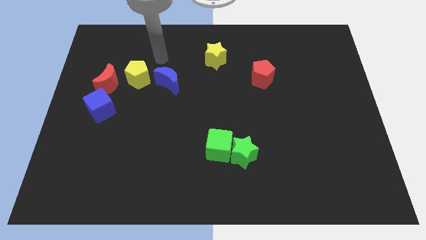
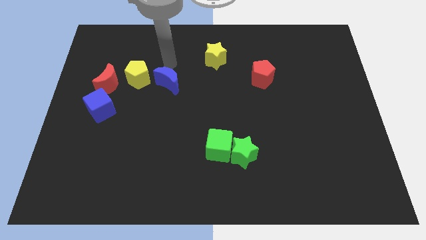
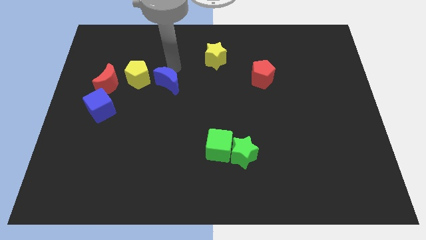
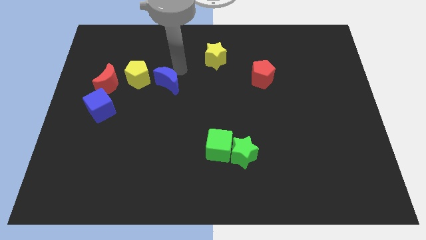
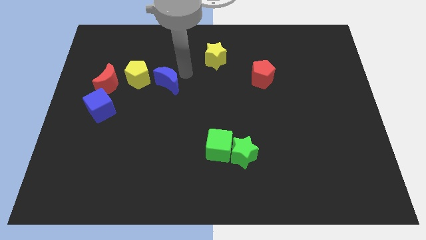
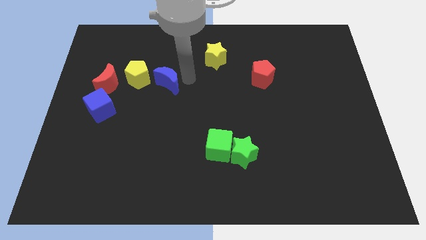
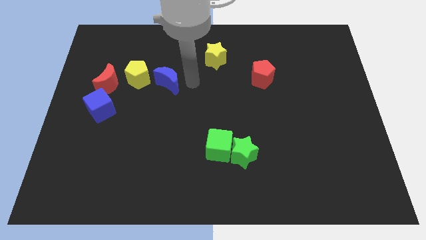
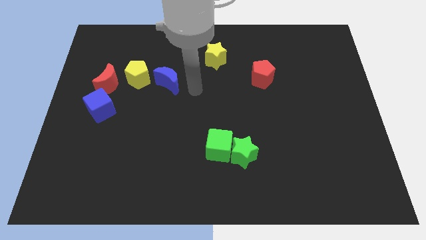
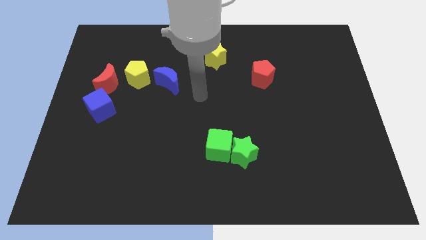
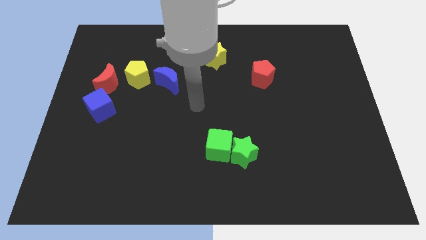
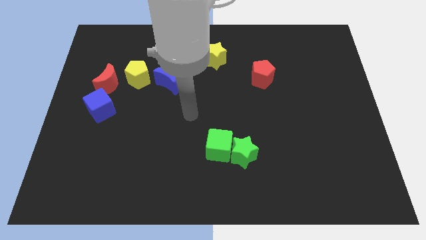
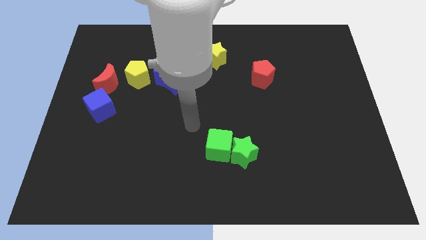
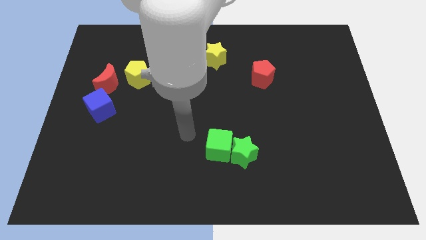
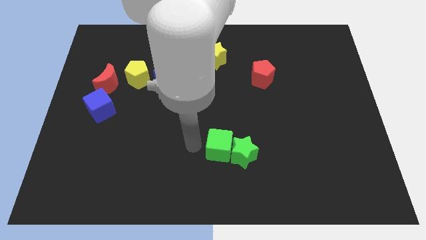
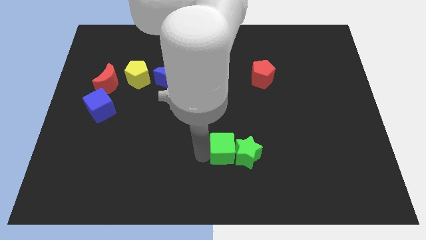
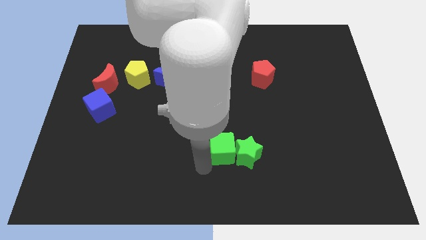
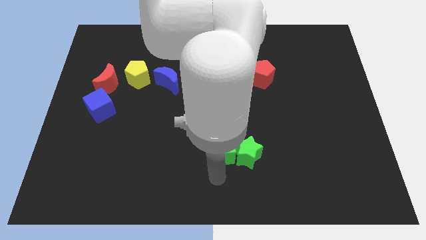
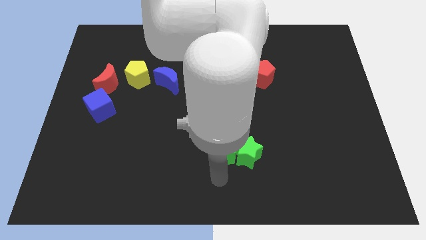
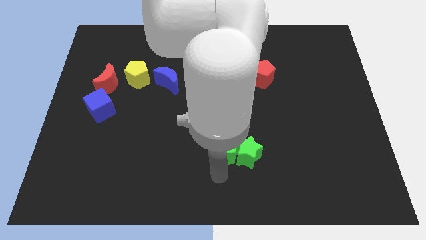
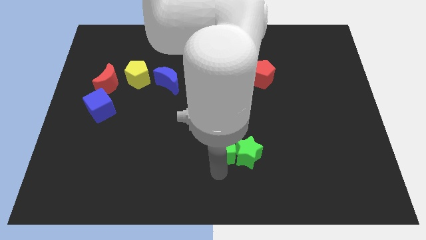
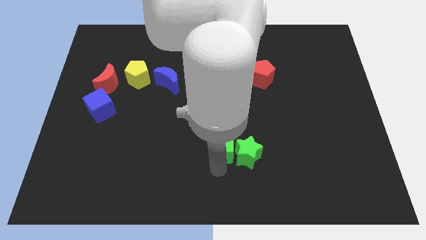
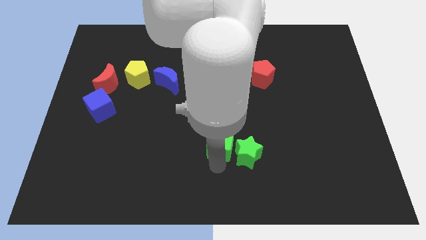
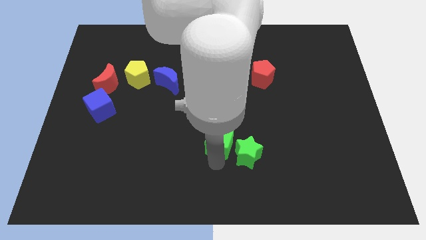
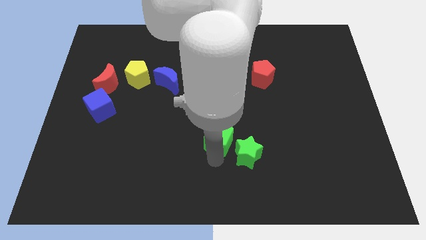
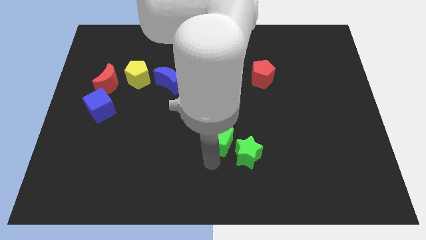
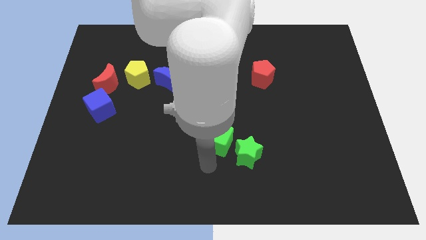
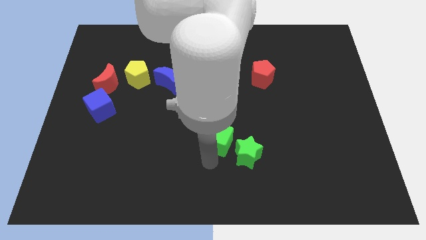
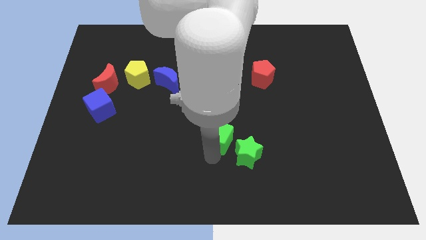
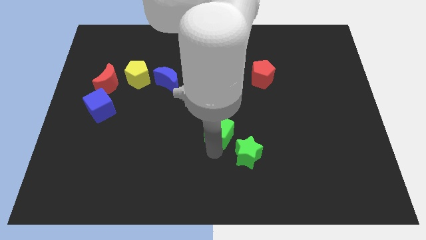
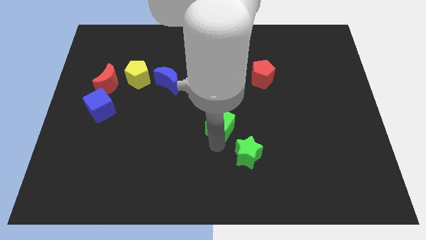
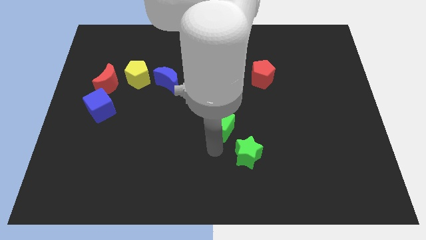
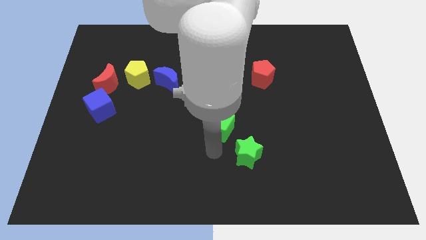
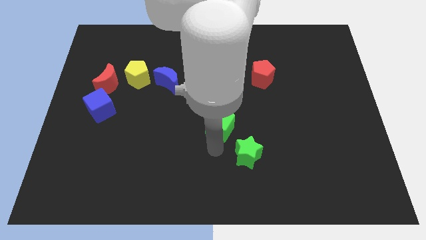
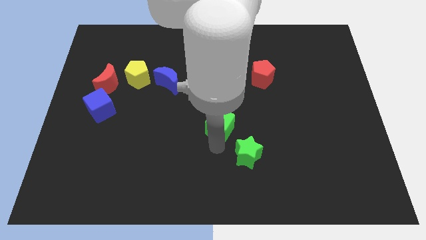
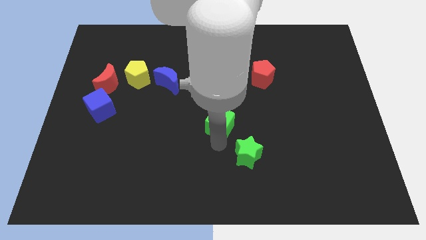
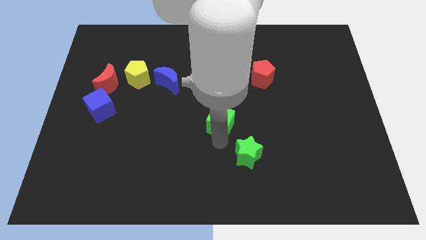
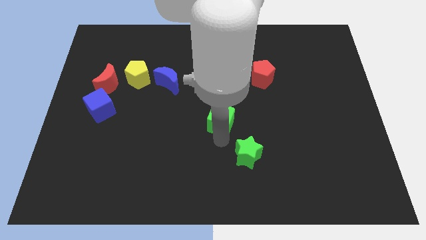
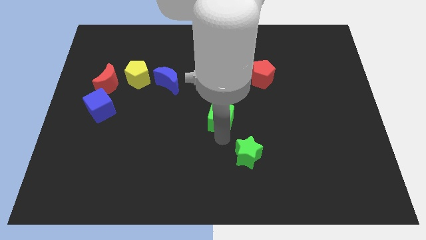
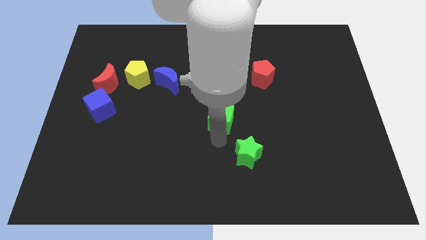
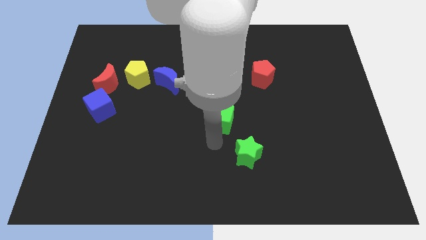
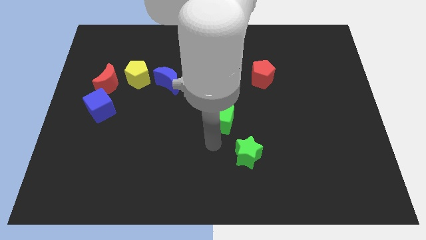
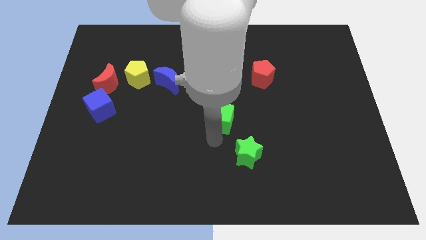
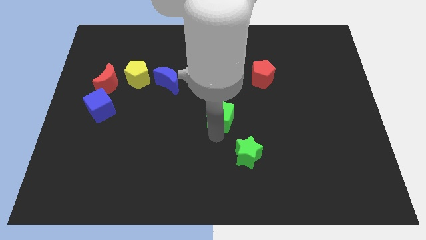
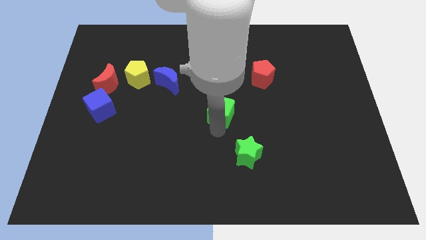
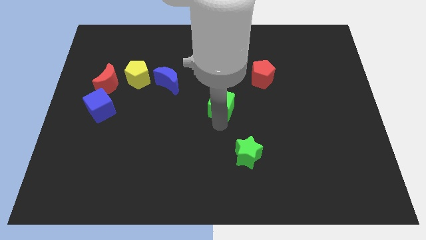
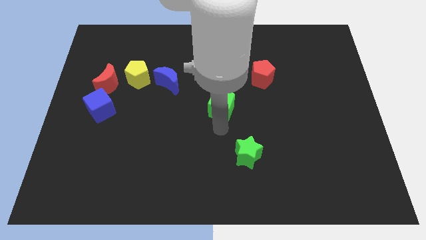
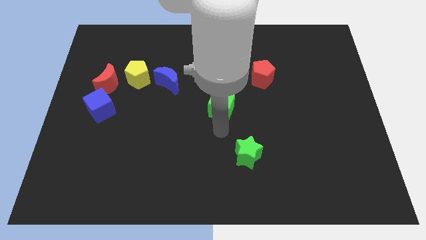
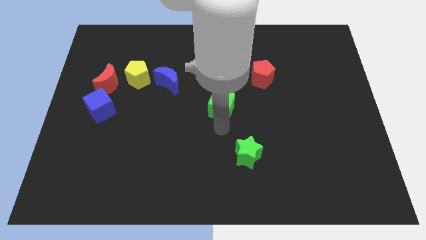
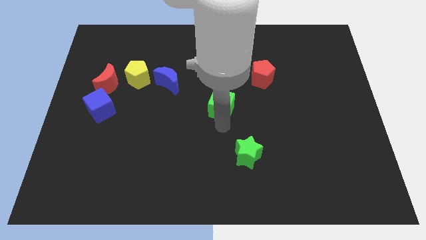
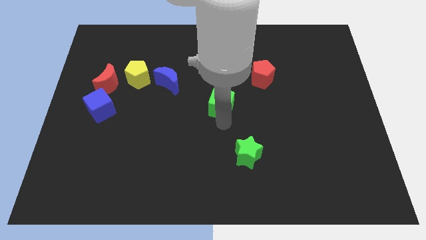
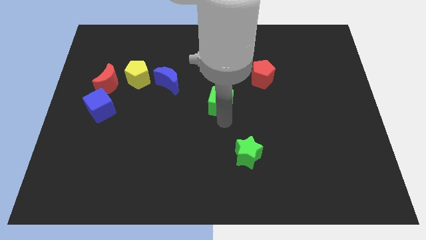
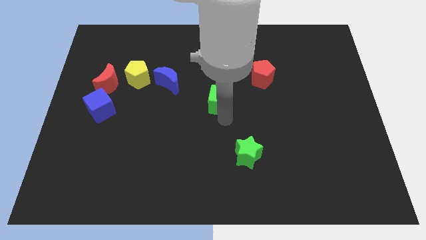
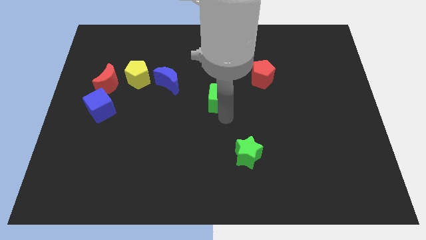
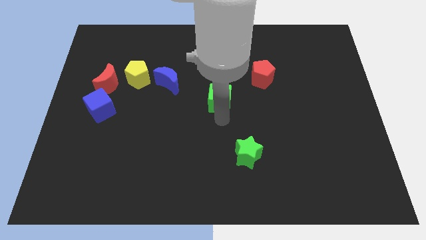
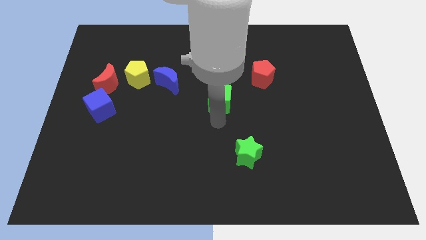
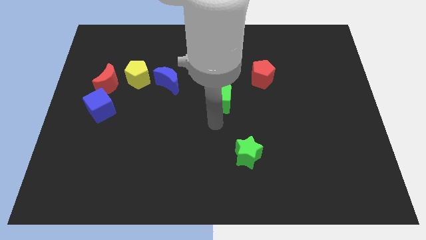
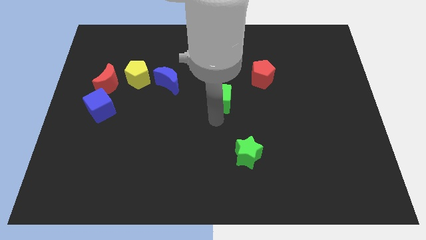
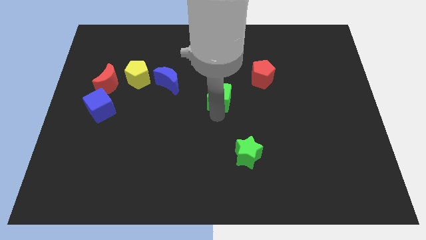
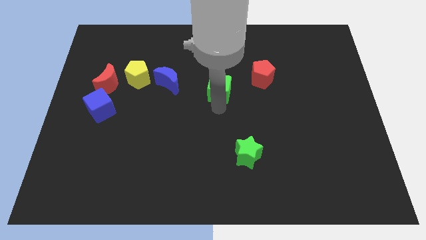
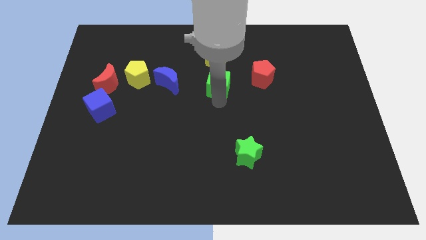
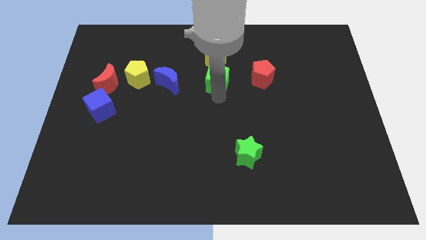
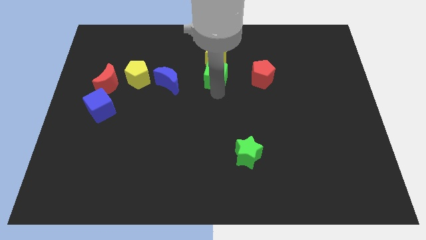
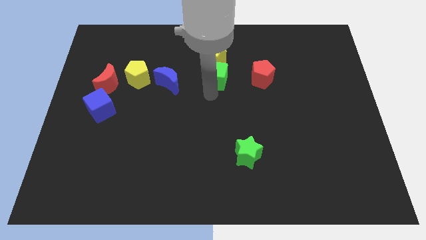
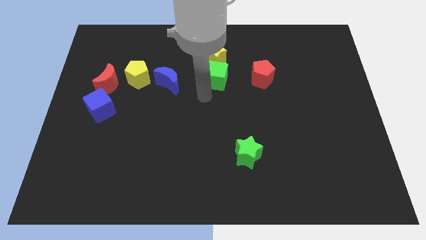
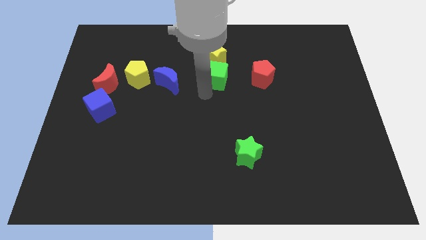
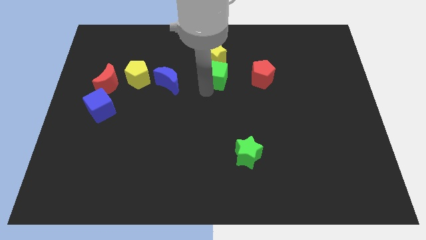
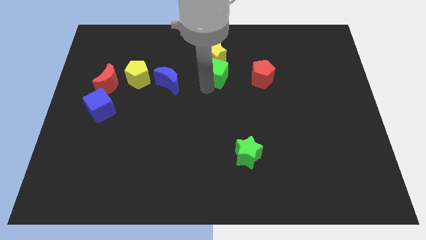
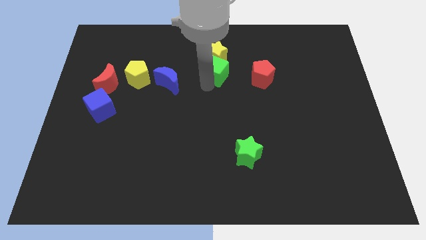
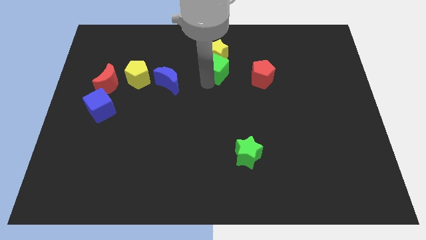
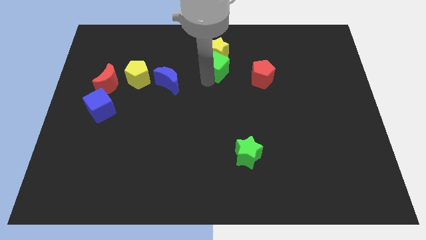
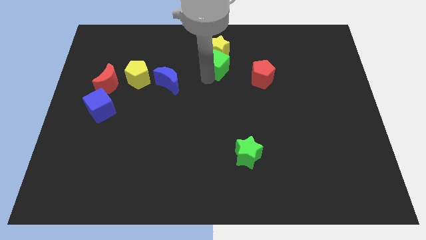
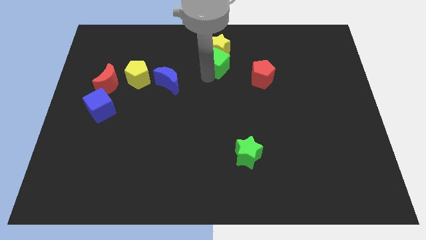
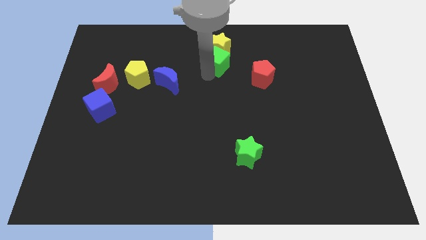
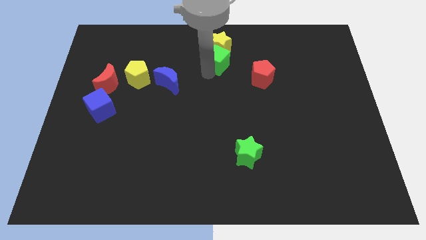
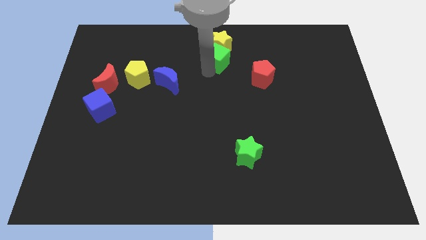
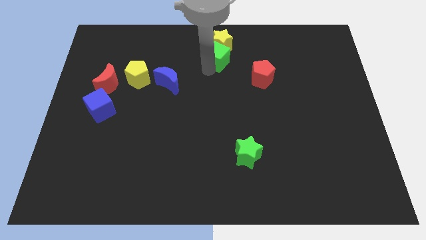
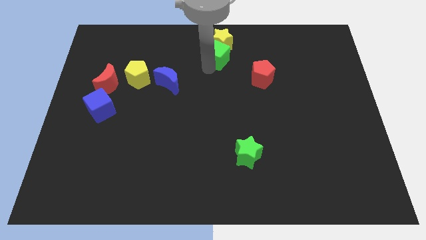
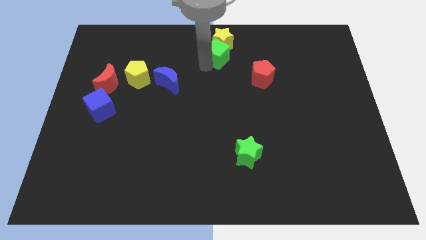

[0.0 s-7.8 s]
push the green cube to the towards your base
